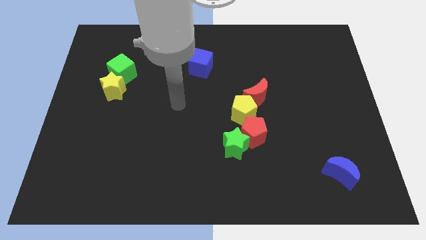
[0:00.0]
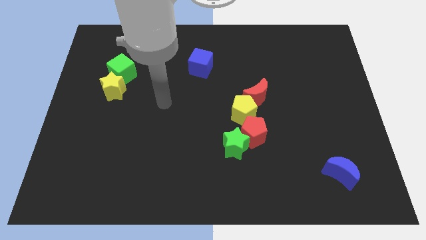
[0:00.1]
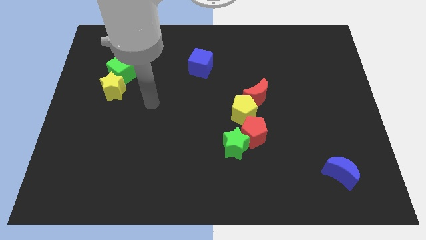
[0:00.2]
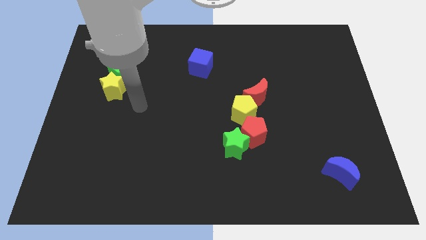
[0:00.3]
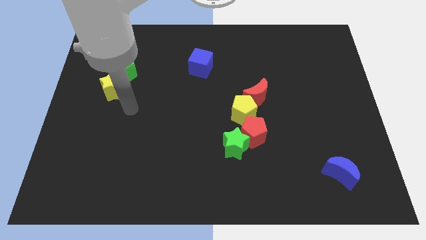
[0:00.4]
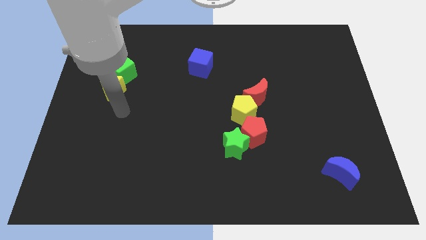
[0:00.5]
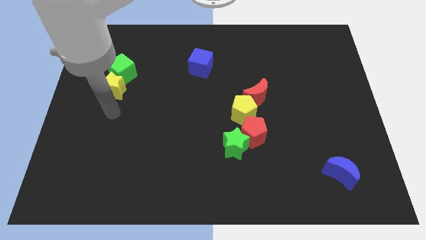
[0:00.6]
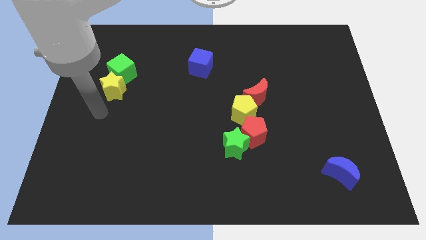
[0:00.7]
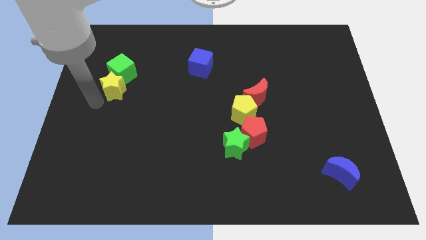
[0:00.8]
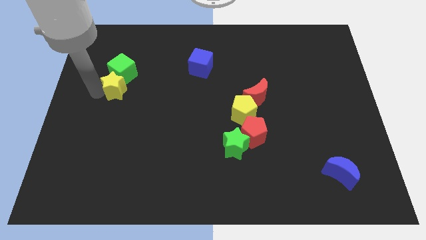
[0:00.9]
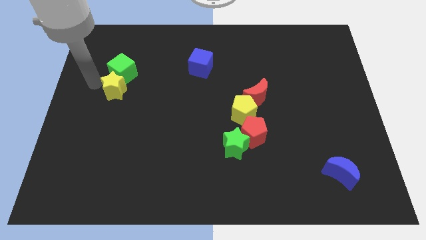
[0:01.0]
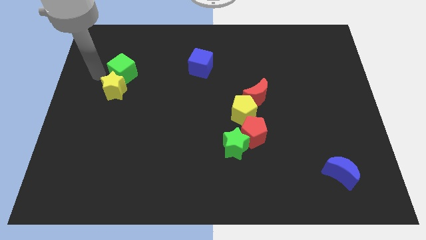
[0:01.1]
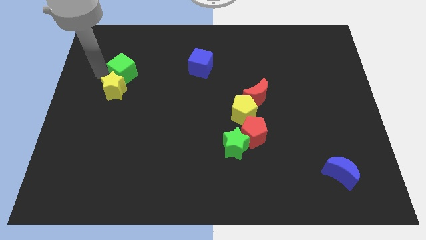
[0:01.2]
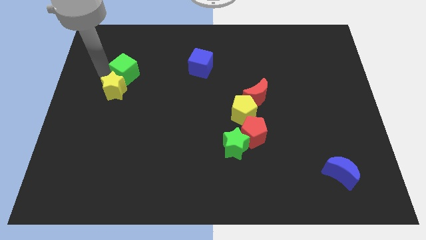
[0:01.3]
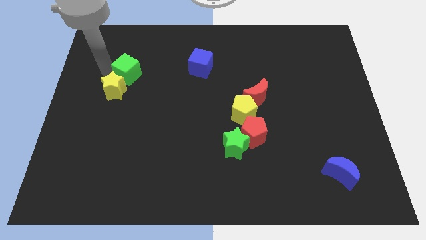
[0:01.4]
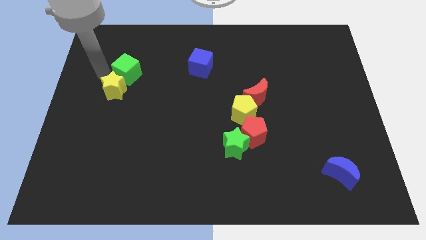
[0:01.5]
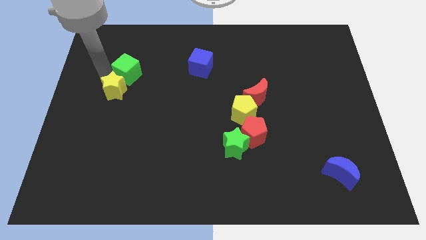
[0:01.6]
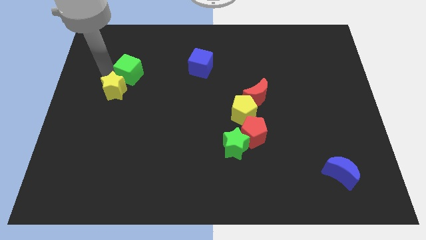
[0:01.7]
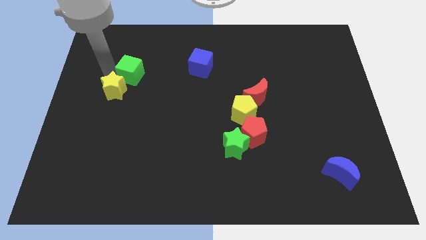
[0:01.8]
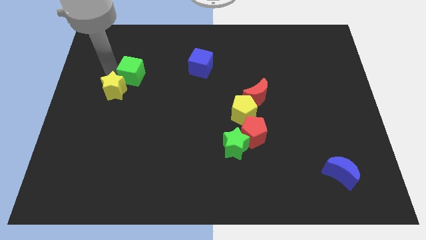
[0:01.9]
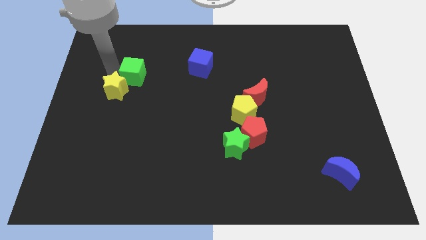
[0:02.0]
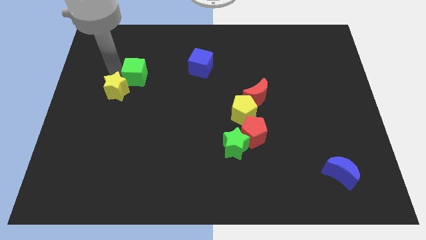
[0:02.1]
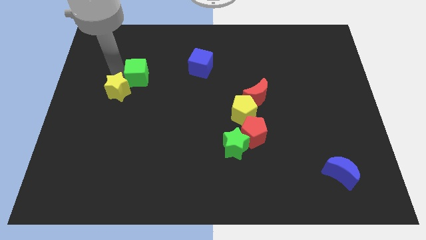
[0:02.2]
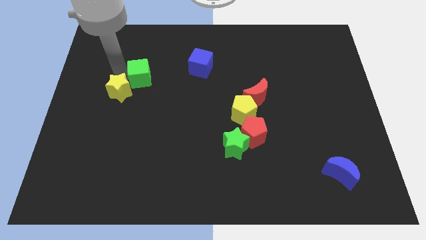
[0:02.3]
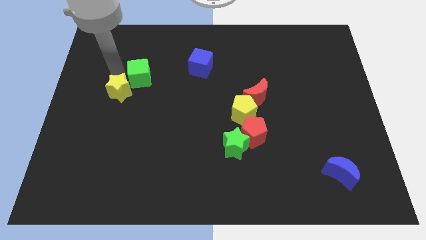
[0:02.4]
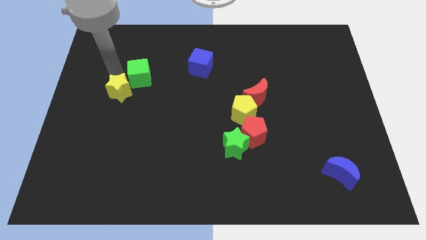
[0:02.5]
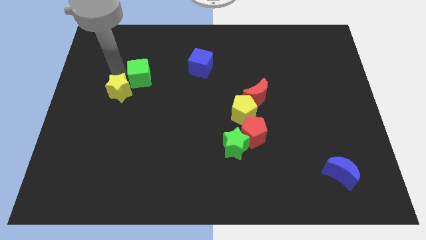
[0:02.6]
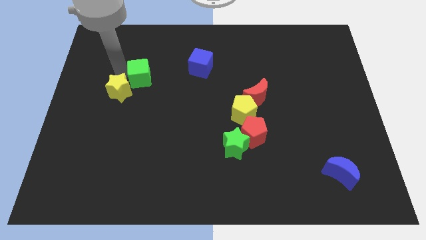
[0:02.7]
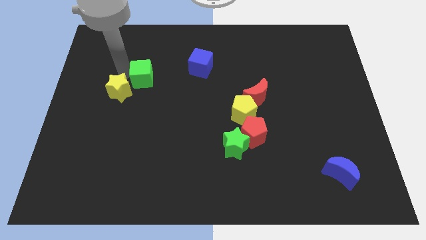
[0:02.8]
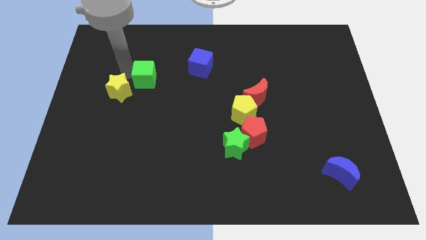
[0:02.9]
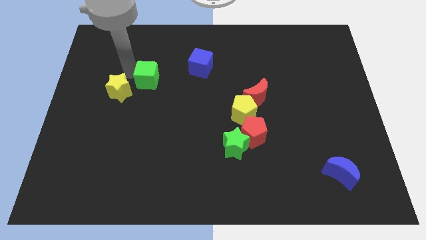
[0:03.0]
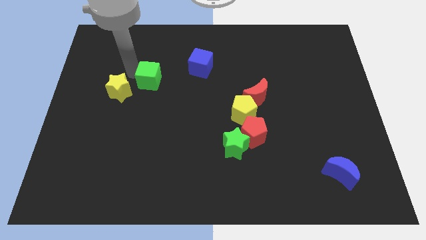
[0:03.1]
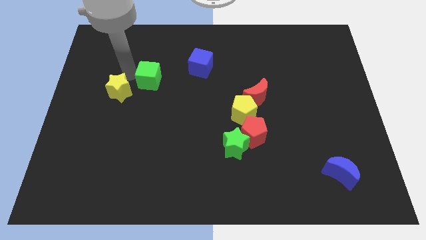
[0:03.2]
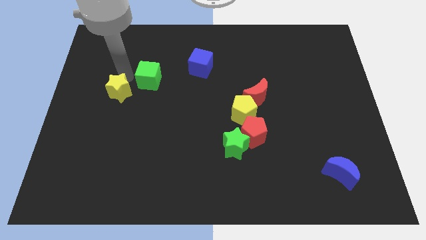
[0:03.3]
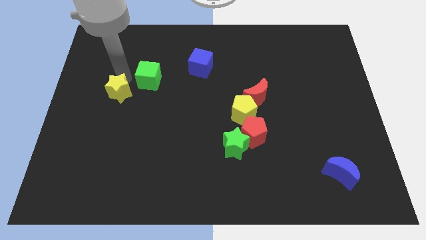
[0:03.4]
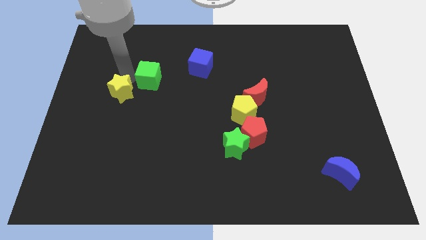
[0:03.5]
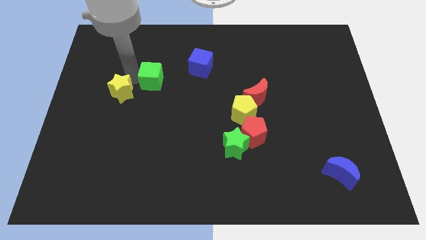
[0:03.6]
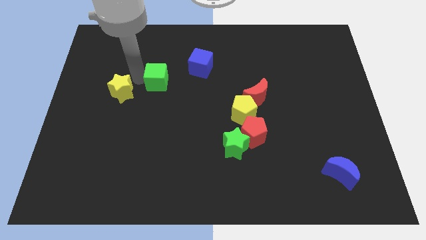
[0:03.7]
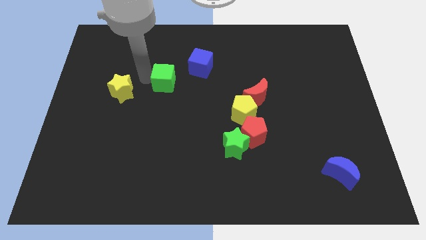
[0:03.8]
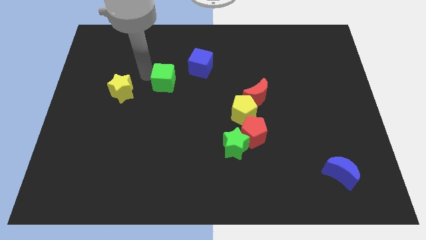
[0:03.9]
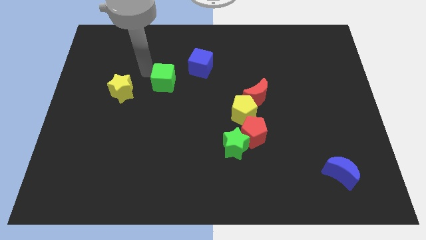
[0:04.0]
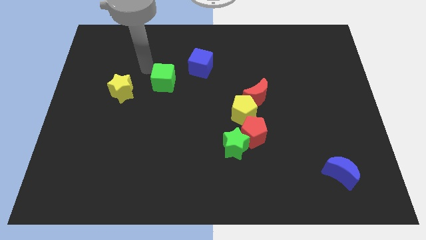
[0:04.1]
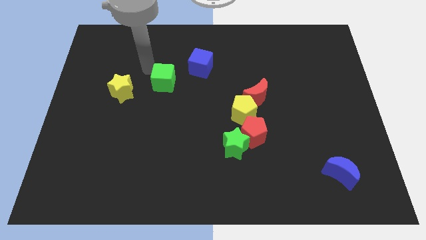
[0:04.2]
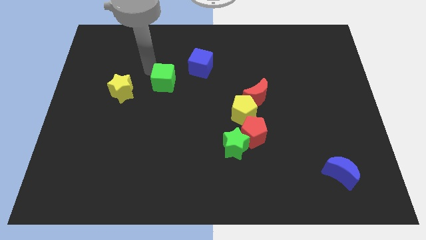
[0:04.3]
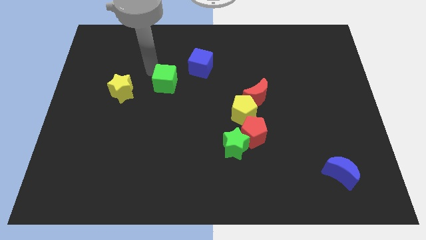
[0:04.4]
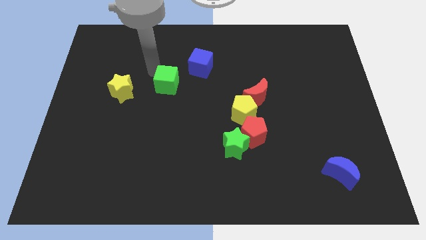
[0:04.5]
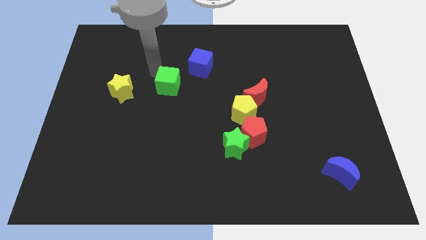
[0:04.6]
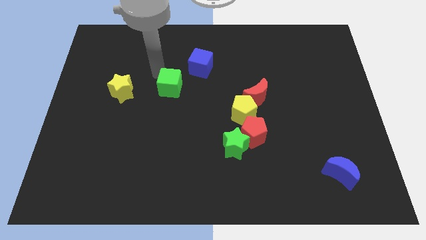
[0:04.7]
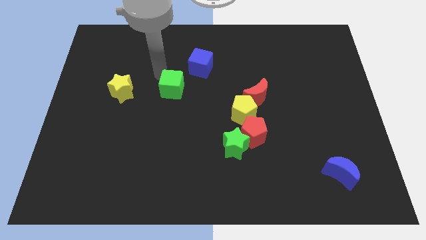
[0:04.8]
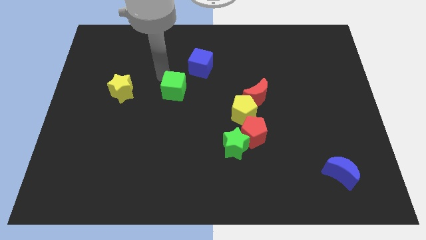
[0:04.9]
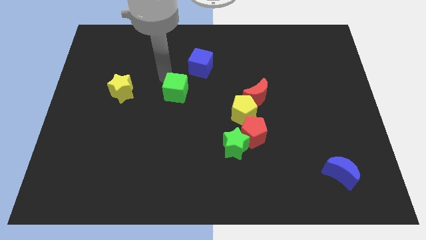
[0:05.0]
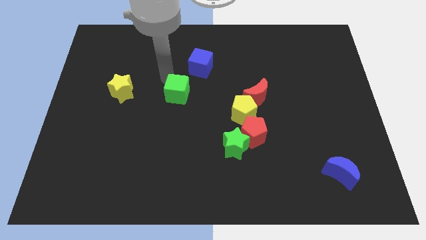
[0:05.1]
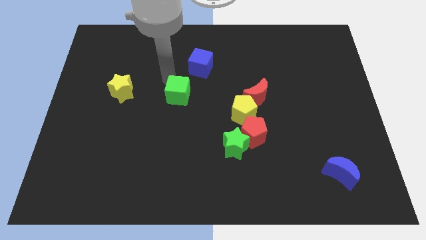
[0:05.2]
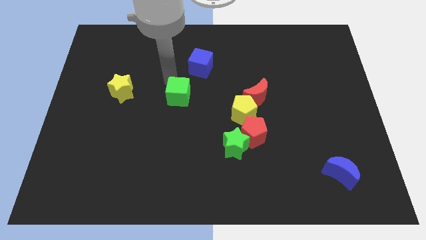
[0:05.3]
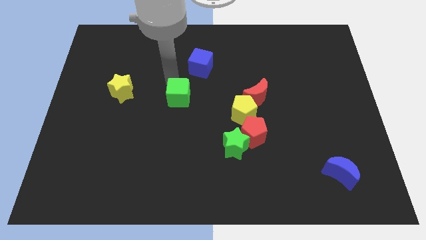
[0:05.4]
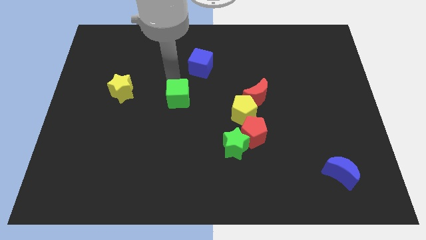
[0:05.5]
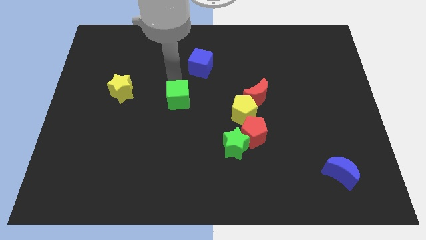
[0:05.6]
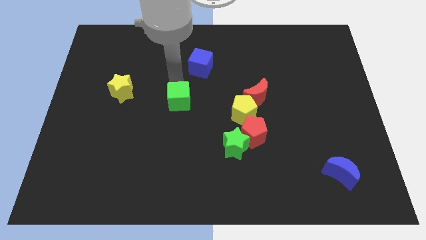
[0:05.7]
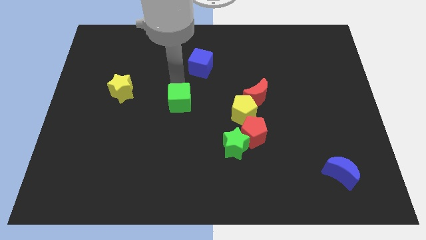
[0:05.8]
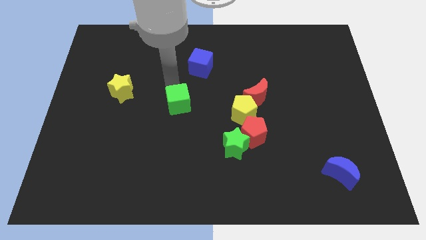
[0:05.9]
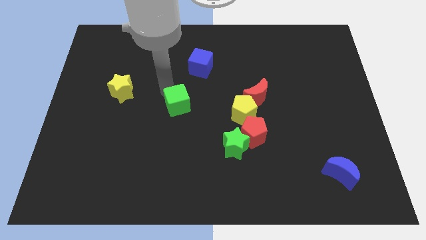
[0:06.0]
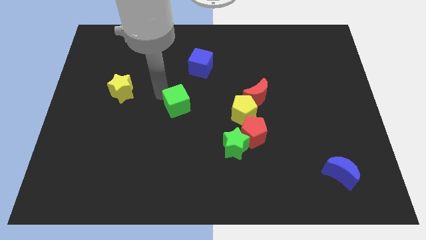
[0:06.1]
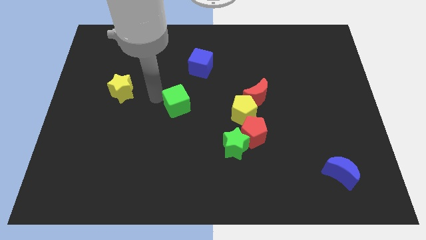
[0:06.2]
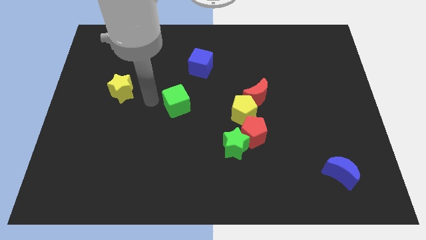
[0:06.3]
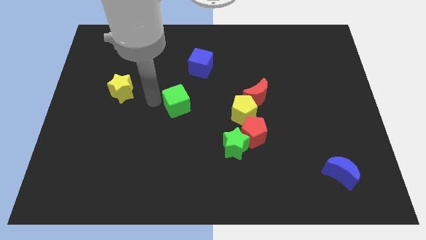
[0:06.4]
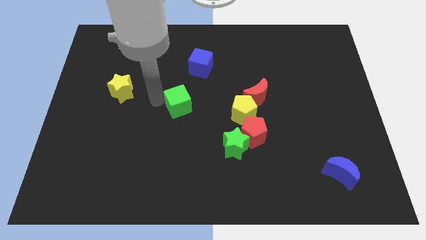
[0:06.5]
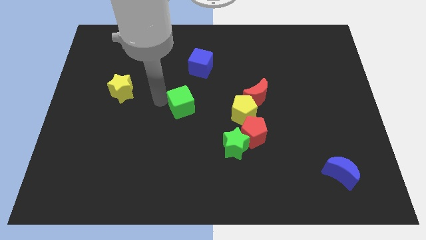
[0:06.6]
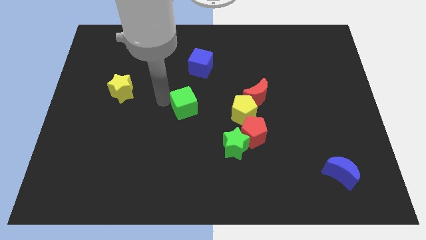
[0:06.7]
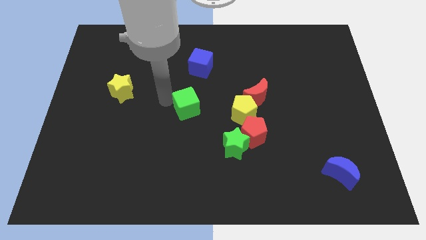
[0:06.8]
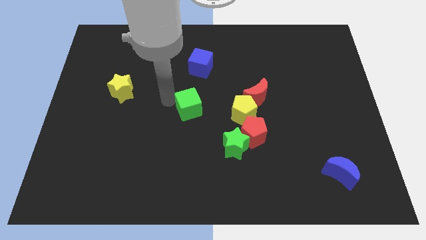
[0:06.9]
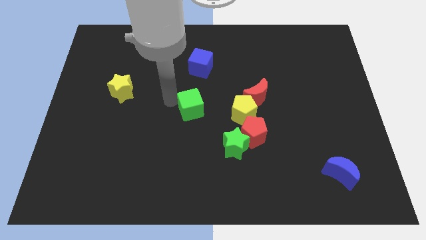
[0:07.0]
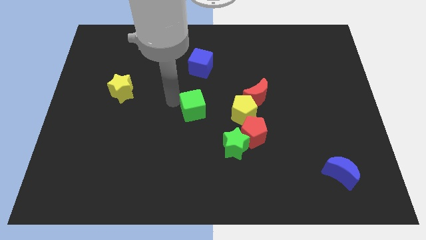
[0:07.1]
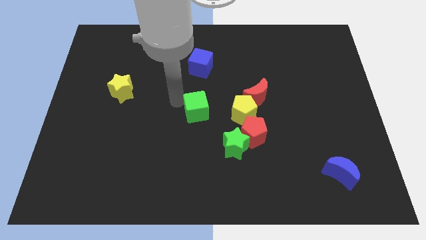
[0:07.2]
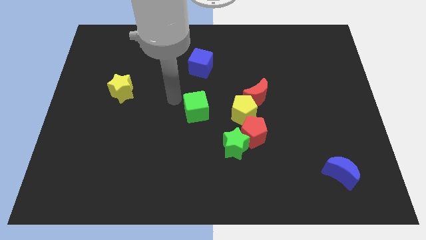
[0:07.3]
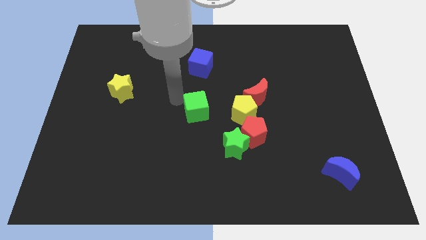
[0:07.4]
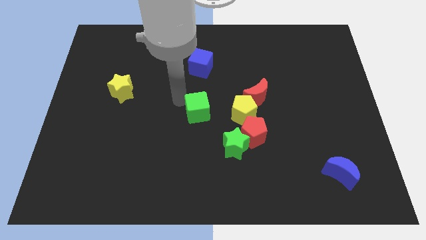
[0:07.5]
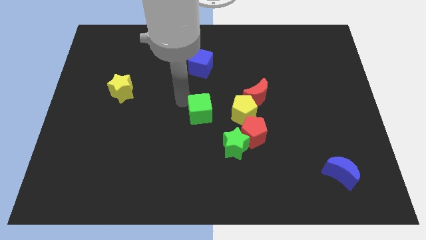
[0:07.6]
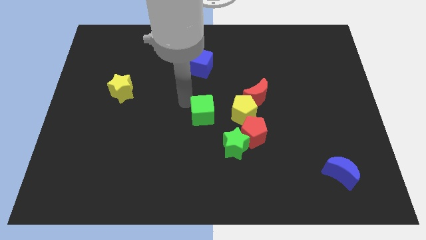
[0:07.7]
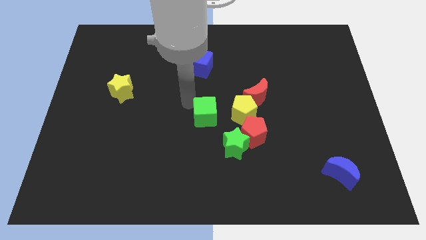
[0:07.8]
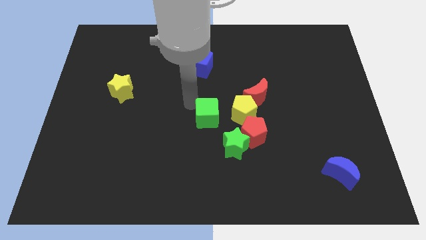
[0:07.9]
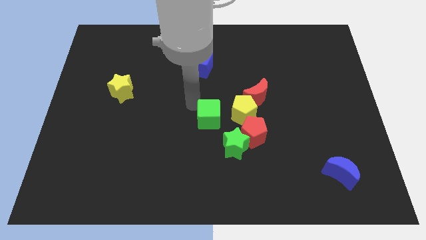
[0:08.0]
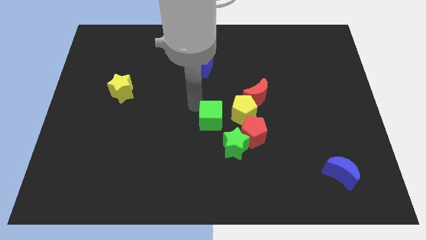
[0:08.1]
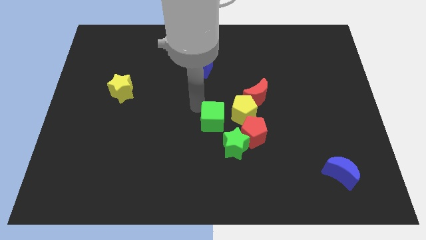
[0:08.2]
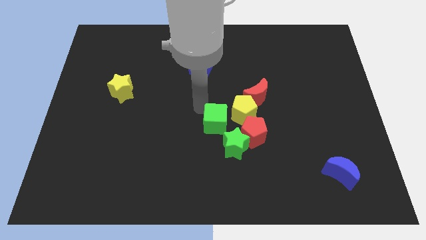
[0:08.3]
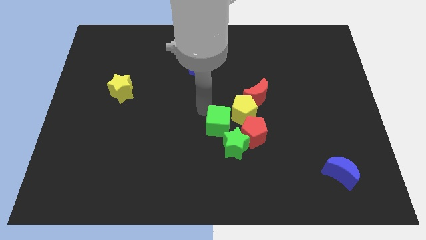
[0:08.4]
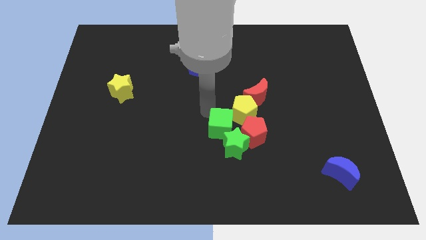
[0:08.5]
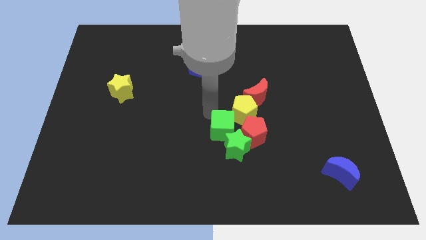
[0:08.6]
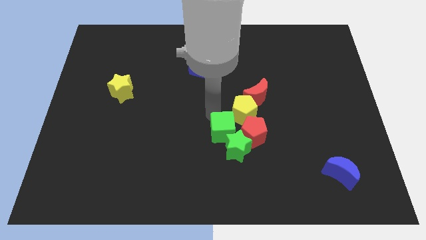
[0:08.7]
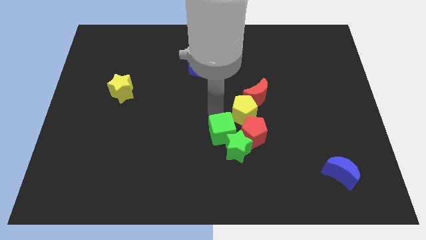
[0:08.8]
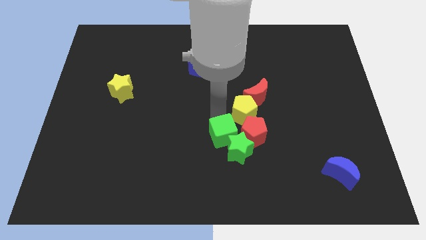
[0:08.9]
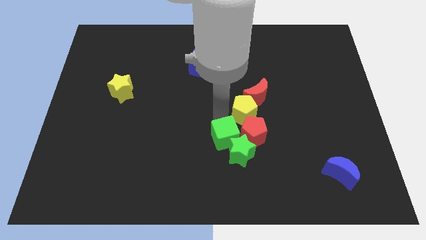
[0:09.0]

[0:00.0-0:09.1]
move the green cube to the red pentagon
